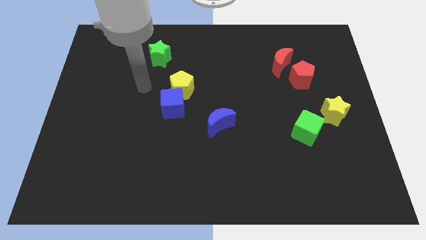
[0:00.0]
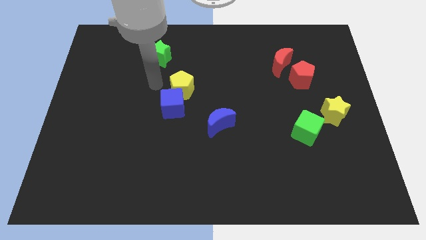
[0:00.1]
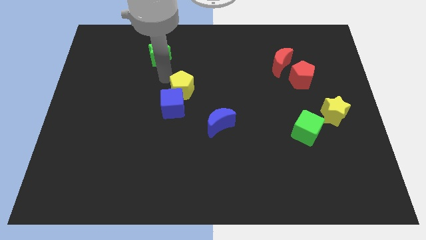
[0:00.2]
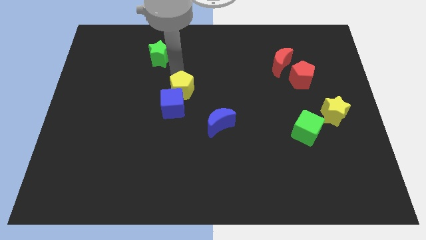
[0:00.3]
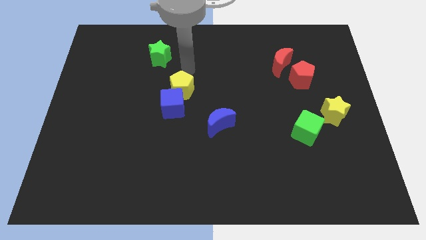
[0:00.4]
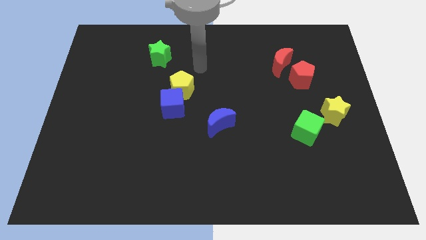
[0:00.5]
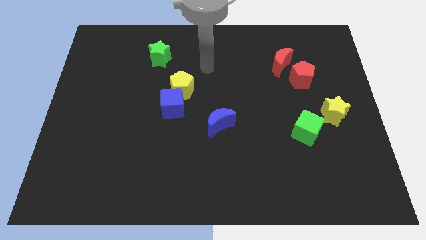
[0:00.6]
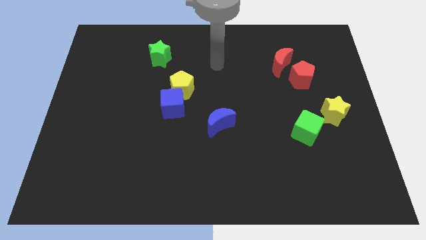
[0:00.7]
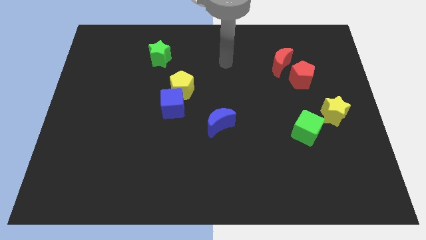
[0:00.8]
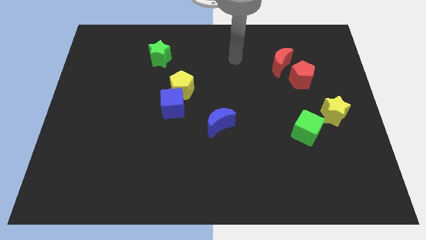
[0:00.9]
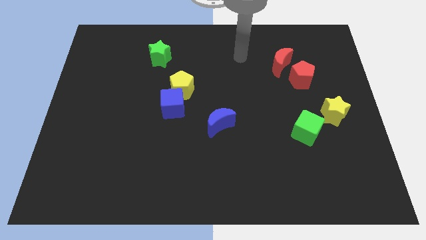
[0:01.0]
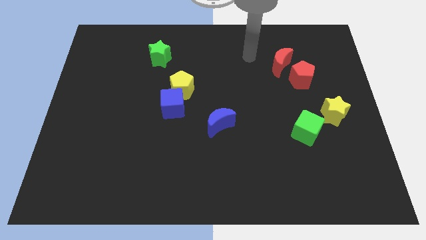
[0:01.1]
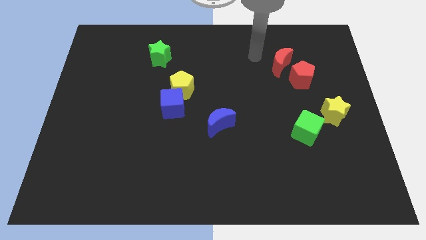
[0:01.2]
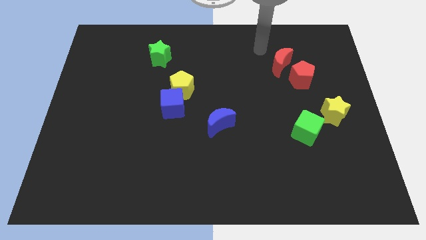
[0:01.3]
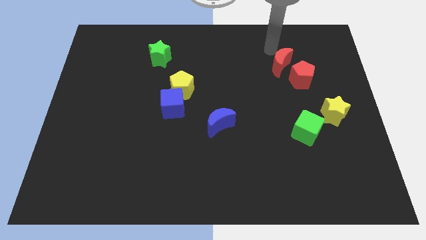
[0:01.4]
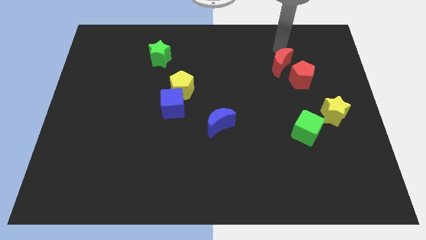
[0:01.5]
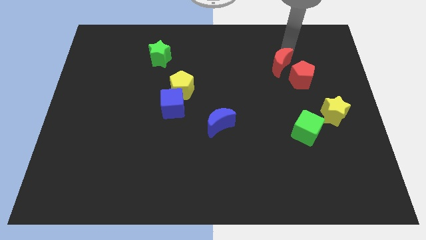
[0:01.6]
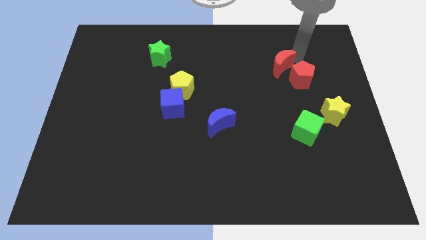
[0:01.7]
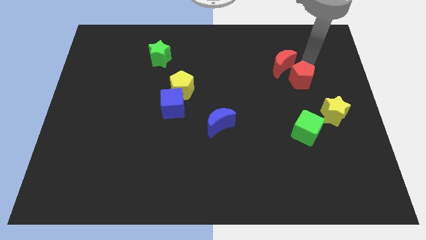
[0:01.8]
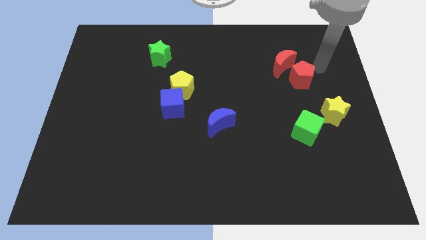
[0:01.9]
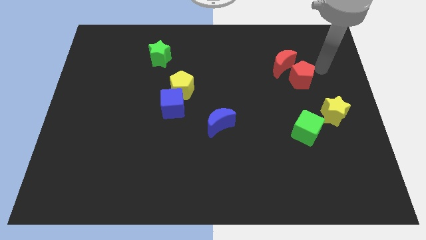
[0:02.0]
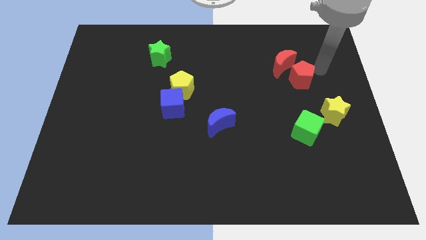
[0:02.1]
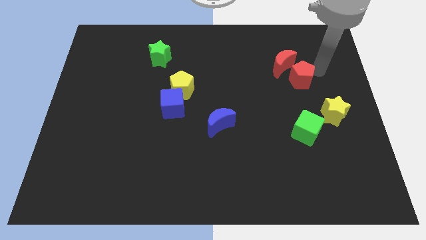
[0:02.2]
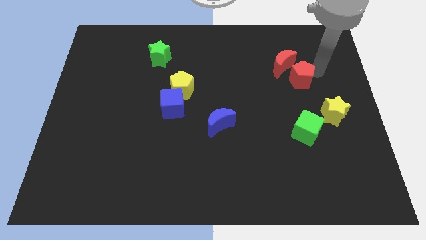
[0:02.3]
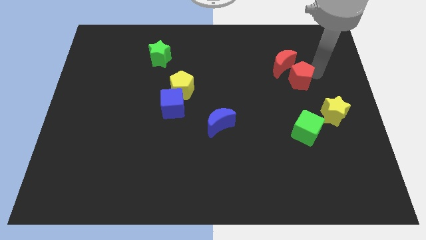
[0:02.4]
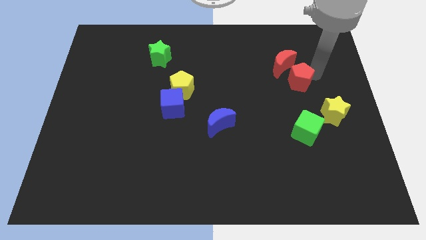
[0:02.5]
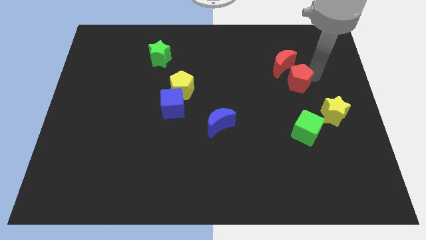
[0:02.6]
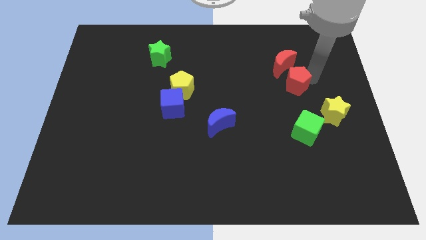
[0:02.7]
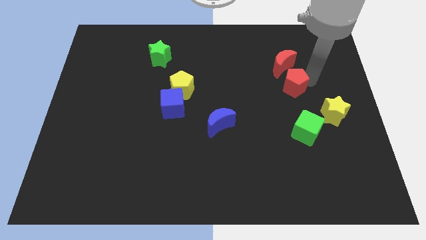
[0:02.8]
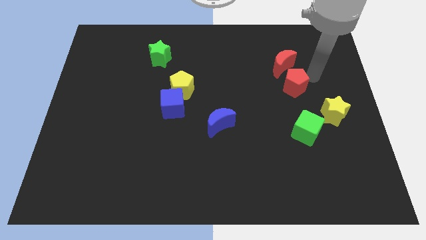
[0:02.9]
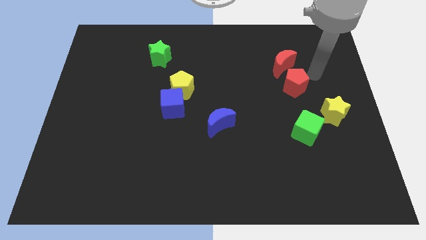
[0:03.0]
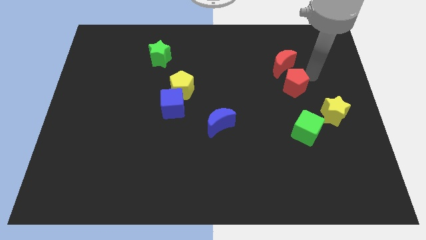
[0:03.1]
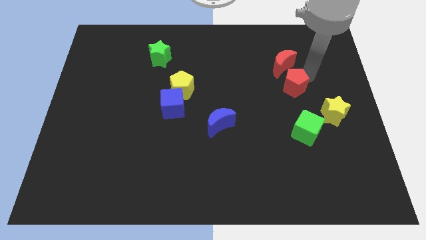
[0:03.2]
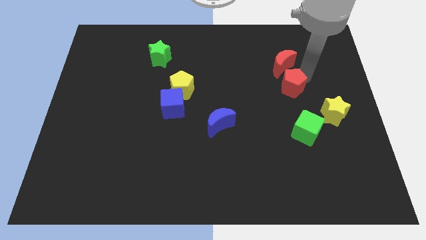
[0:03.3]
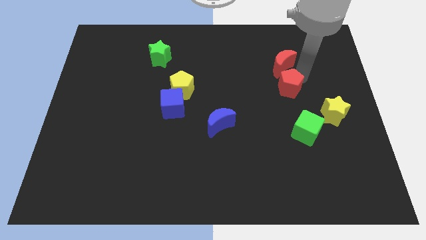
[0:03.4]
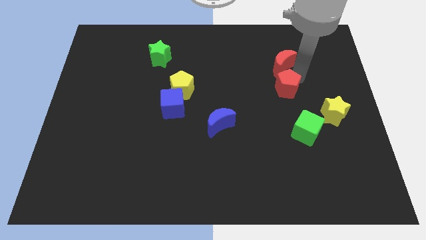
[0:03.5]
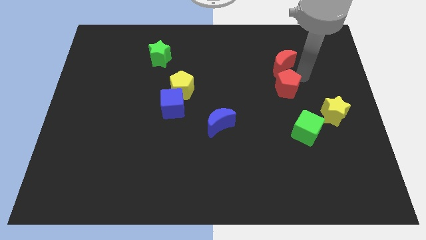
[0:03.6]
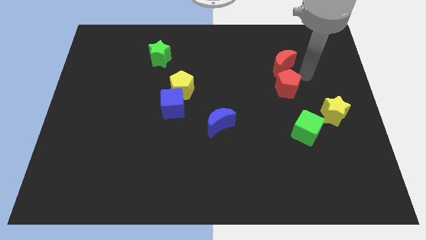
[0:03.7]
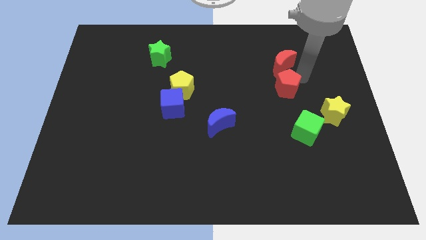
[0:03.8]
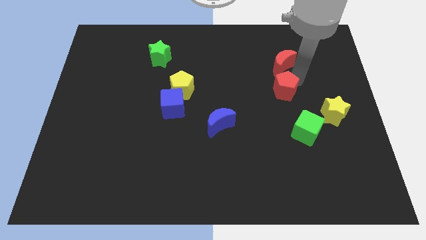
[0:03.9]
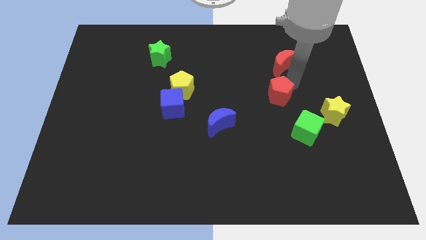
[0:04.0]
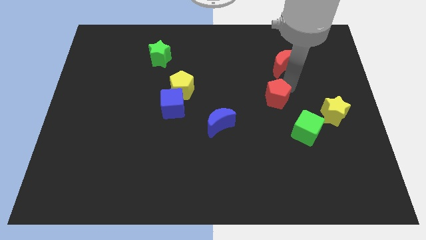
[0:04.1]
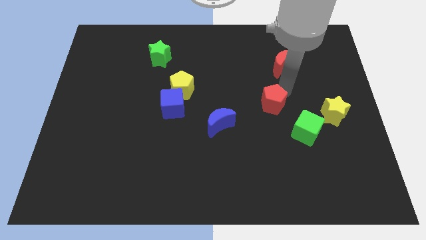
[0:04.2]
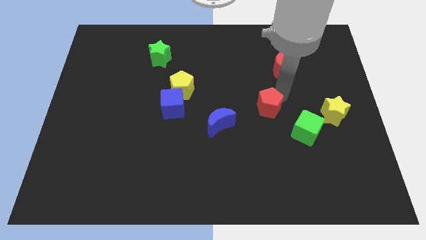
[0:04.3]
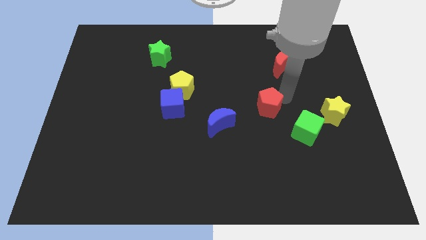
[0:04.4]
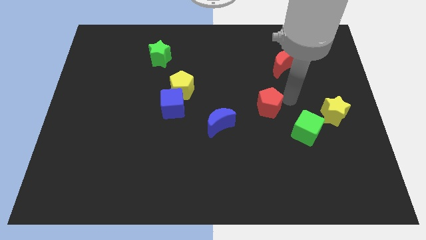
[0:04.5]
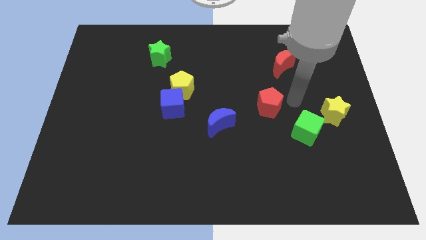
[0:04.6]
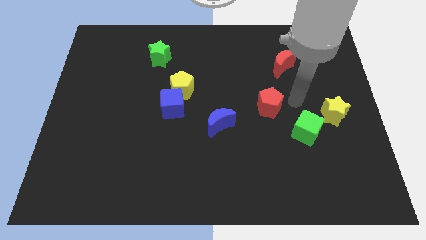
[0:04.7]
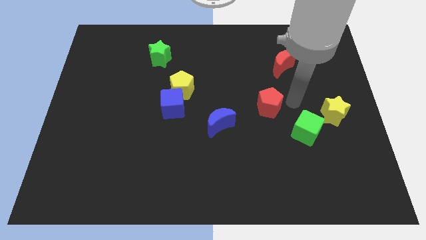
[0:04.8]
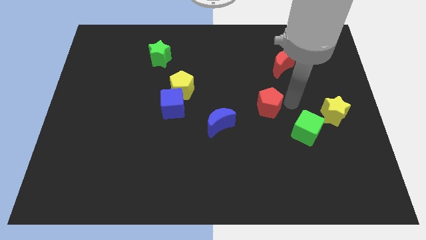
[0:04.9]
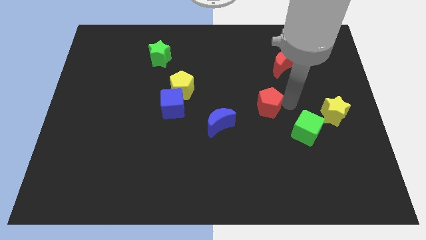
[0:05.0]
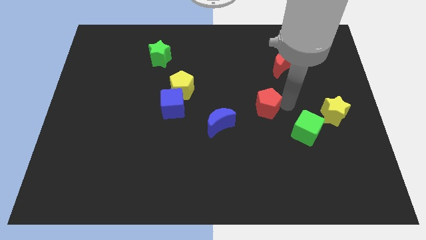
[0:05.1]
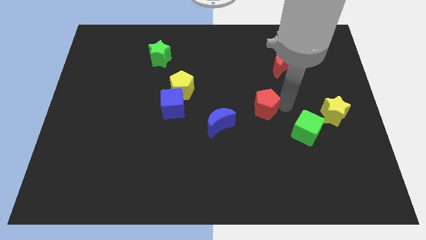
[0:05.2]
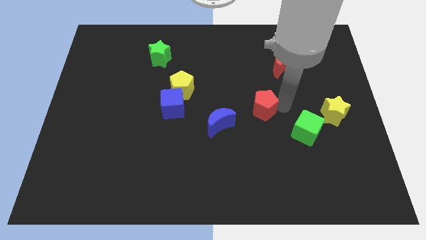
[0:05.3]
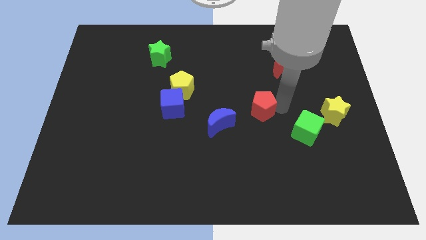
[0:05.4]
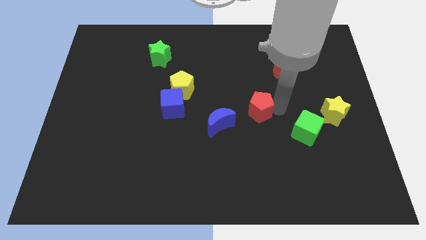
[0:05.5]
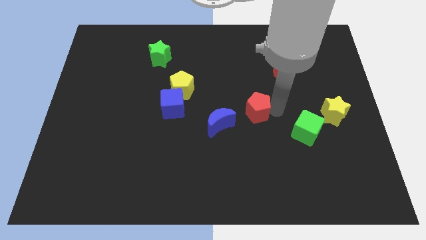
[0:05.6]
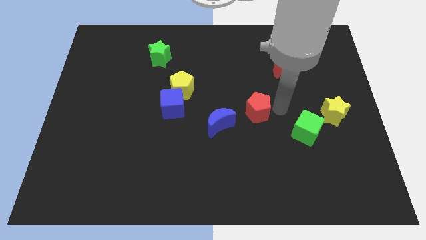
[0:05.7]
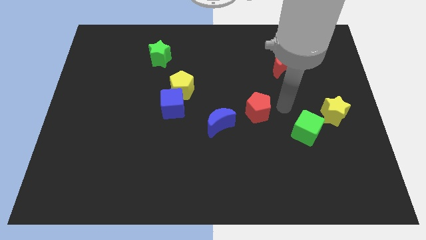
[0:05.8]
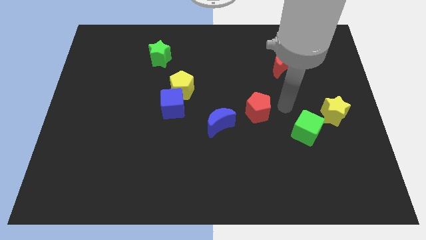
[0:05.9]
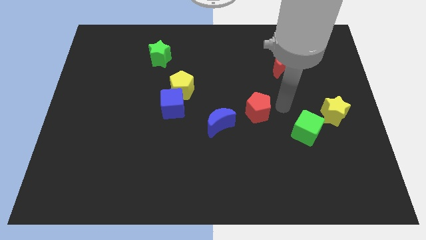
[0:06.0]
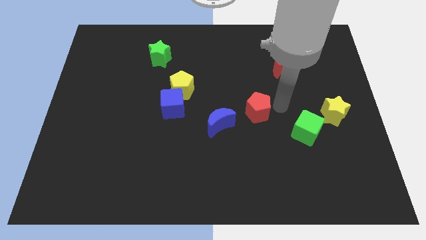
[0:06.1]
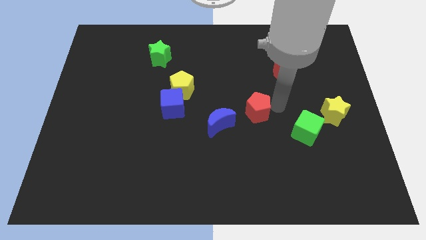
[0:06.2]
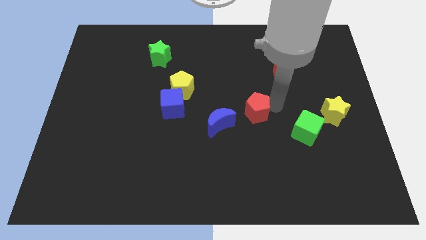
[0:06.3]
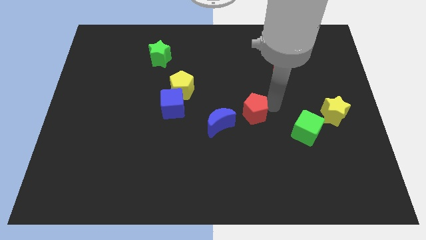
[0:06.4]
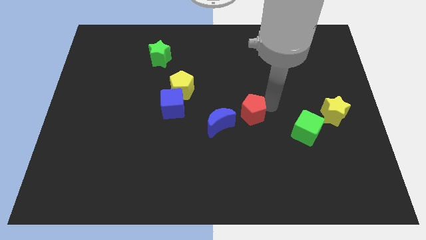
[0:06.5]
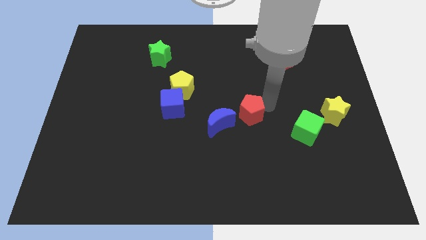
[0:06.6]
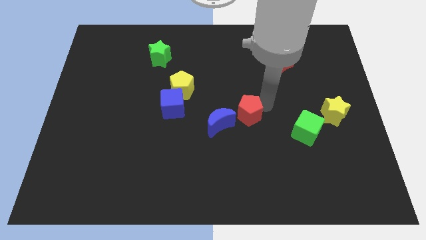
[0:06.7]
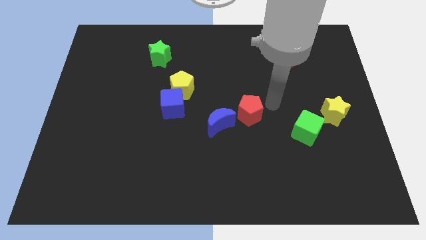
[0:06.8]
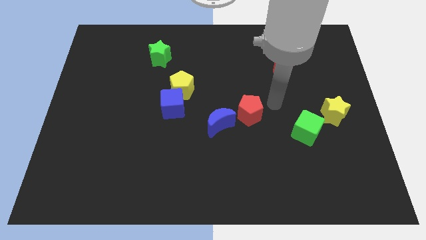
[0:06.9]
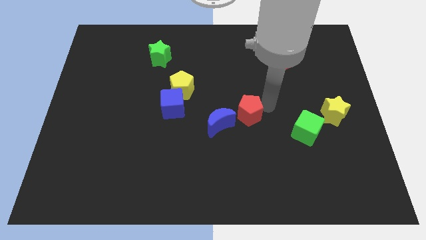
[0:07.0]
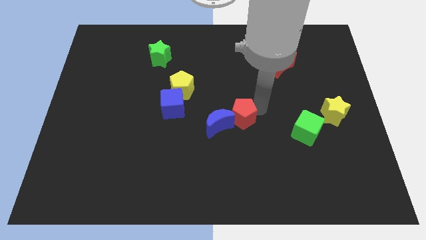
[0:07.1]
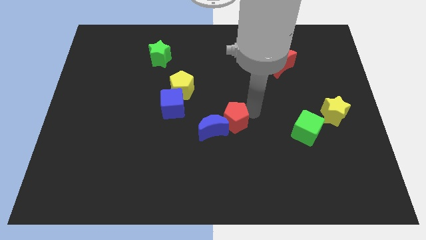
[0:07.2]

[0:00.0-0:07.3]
move the red pentagon next to the blue moon

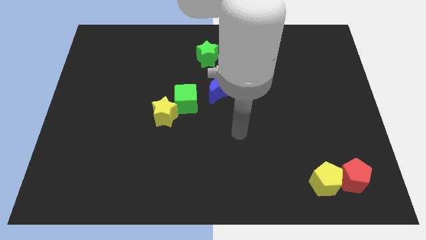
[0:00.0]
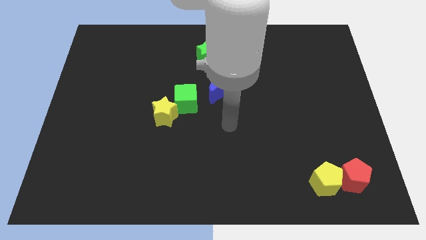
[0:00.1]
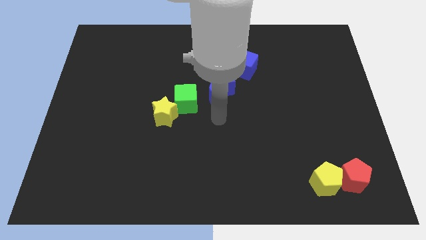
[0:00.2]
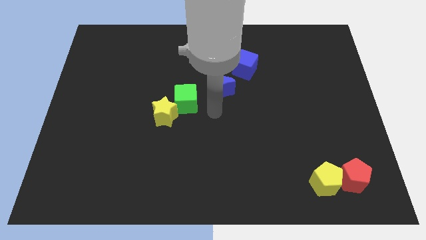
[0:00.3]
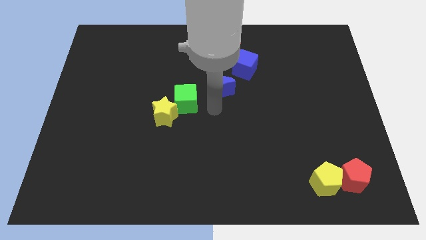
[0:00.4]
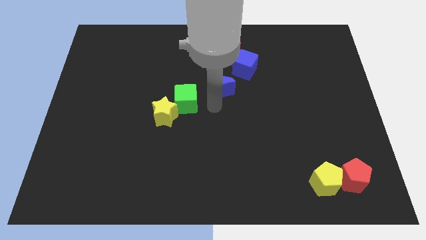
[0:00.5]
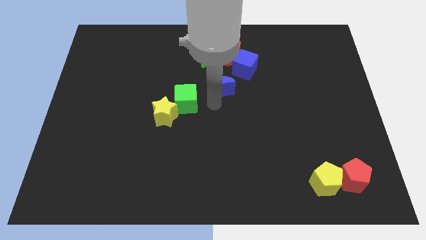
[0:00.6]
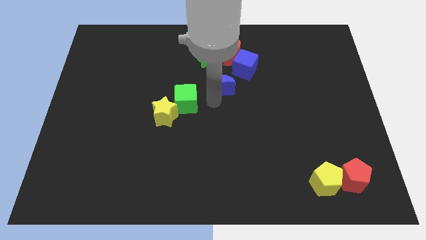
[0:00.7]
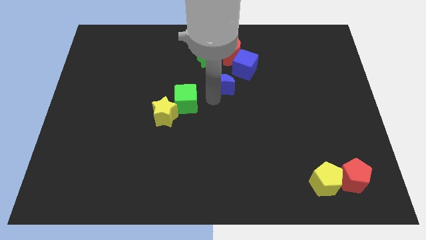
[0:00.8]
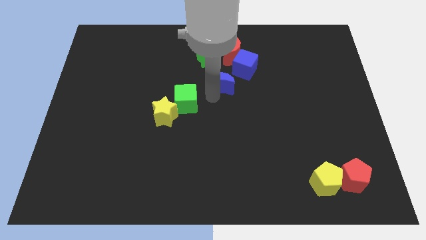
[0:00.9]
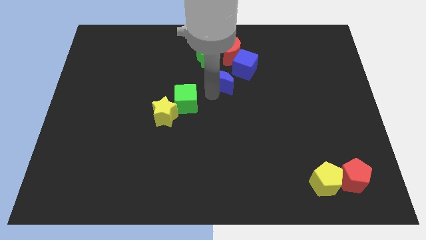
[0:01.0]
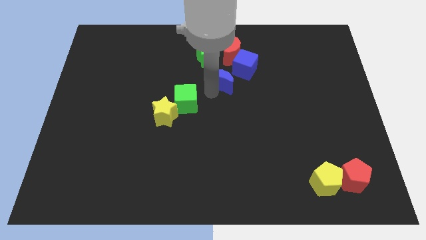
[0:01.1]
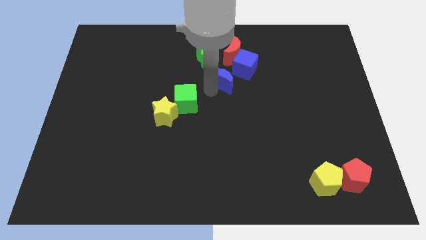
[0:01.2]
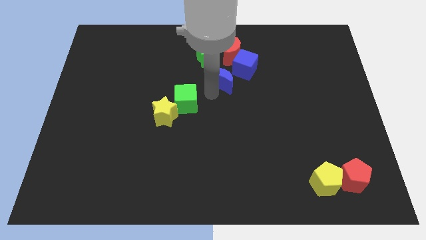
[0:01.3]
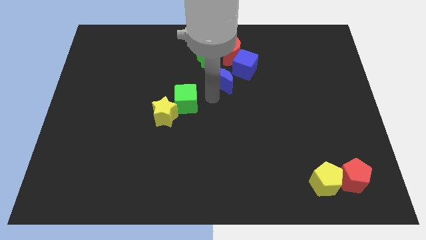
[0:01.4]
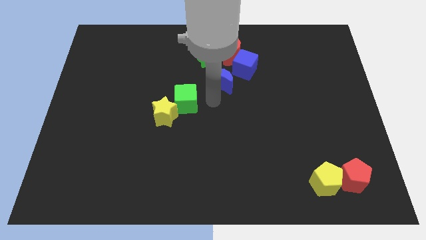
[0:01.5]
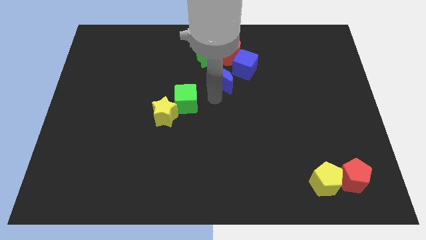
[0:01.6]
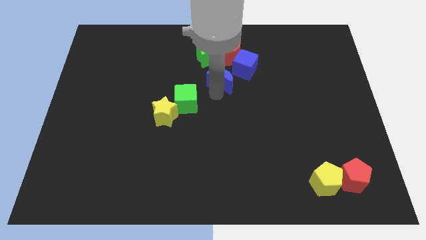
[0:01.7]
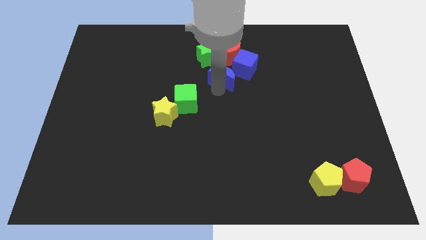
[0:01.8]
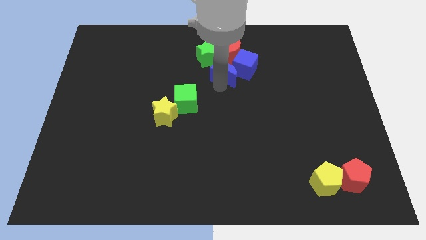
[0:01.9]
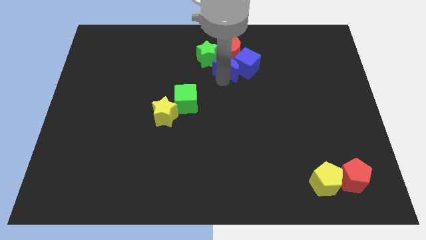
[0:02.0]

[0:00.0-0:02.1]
move the blue moon close to the red moon
